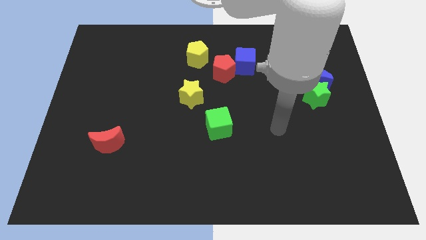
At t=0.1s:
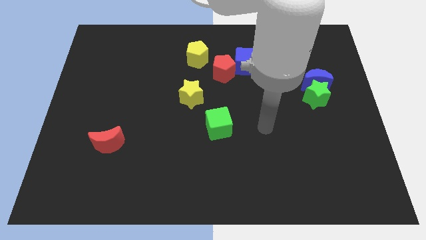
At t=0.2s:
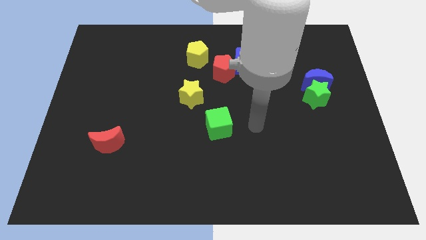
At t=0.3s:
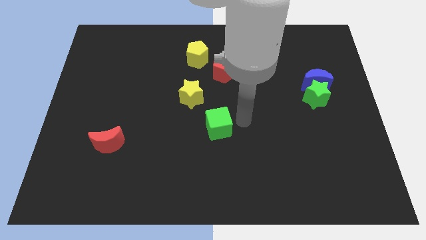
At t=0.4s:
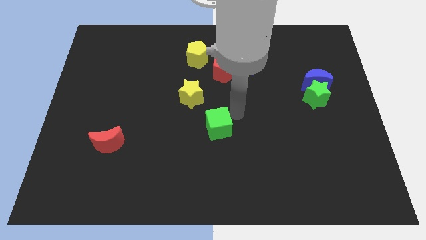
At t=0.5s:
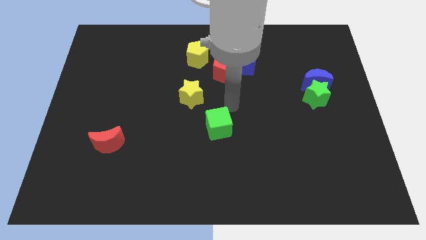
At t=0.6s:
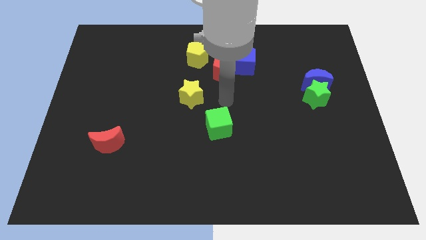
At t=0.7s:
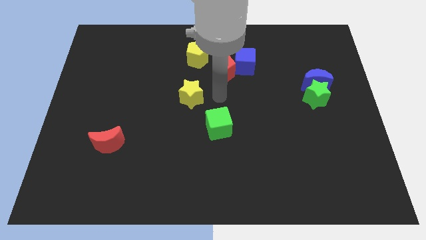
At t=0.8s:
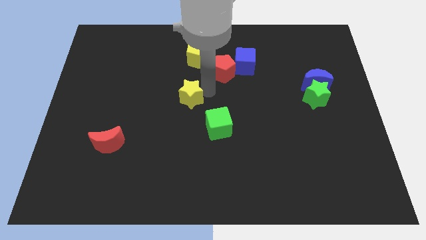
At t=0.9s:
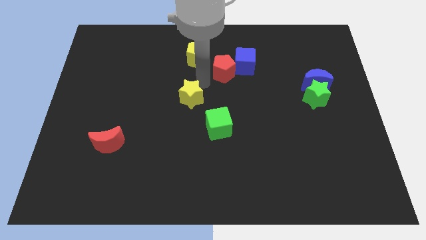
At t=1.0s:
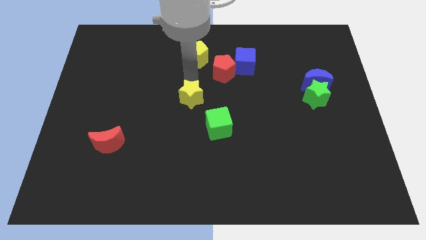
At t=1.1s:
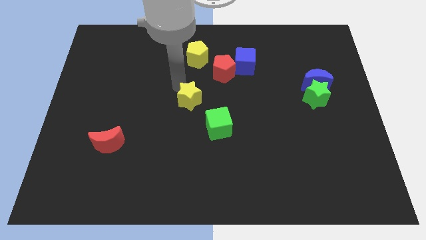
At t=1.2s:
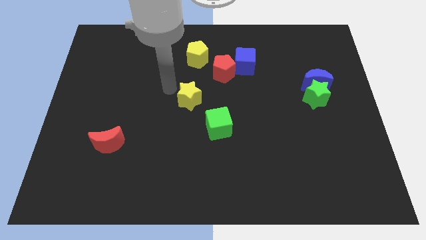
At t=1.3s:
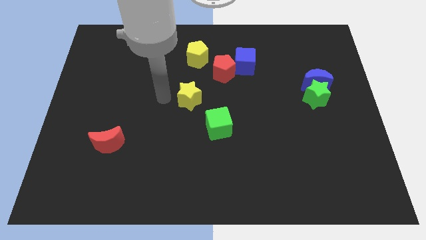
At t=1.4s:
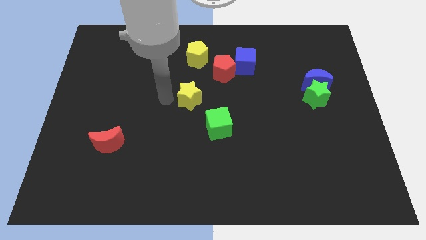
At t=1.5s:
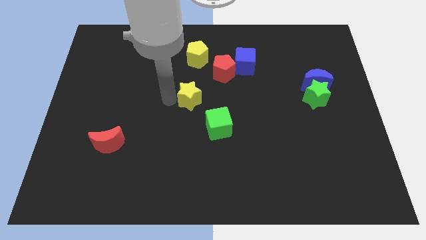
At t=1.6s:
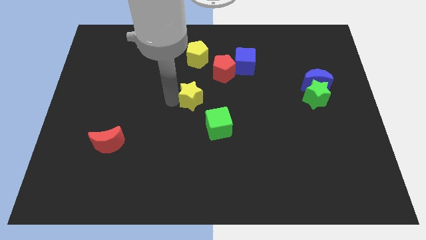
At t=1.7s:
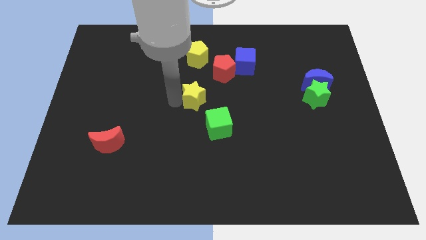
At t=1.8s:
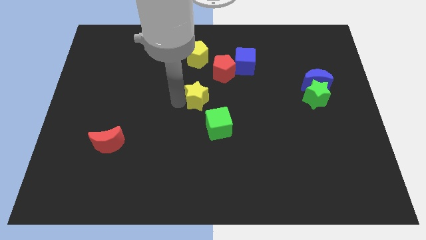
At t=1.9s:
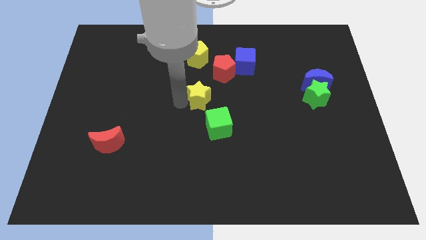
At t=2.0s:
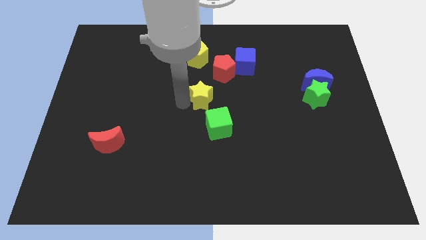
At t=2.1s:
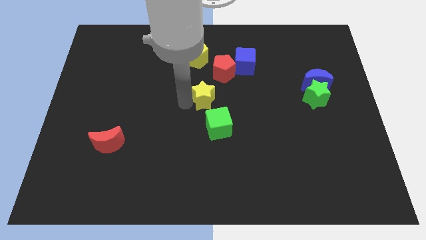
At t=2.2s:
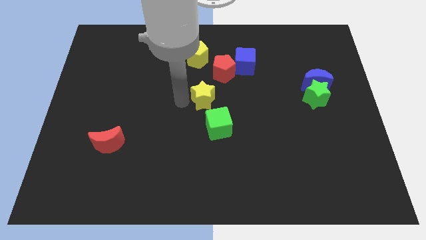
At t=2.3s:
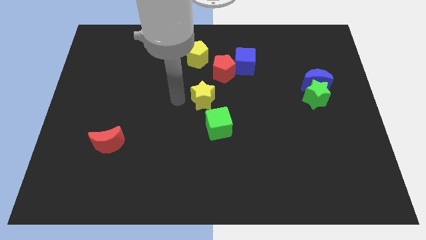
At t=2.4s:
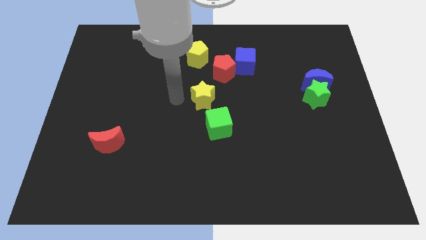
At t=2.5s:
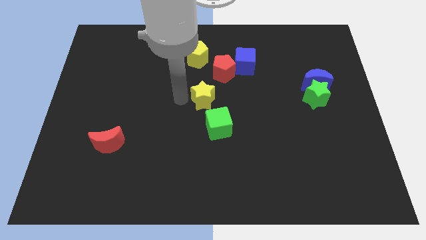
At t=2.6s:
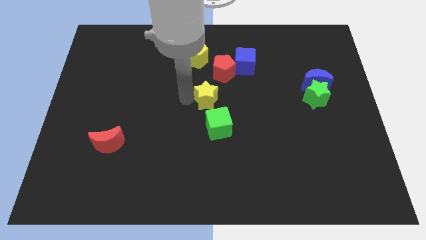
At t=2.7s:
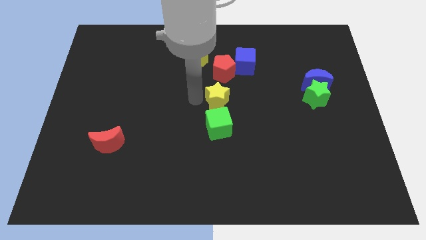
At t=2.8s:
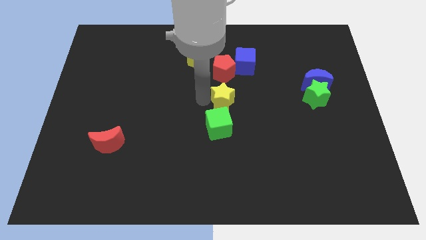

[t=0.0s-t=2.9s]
move the yellow star right somewhat

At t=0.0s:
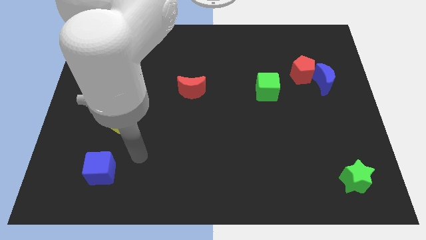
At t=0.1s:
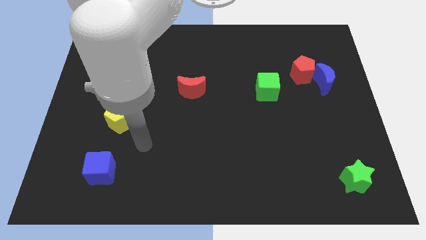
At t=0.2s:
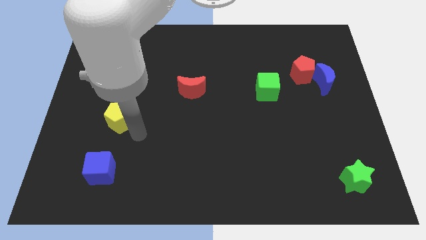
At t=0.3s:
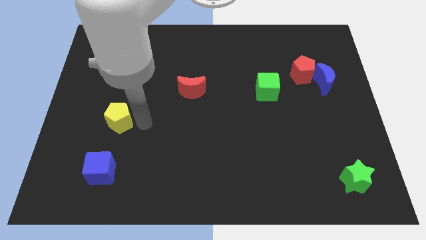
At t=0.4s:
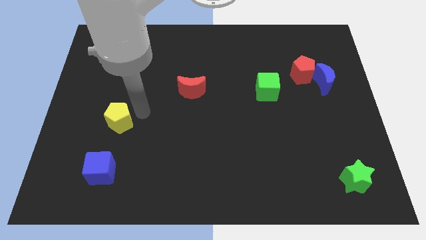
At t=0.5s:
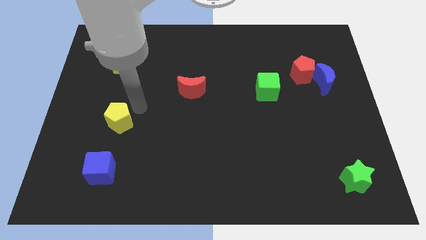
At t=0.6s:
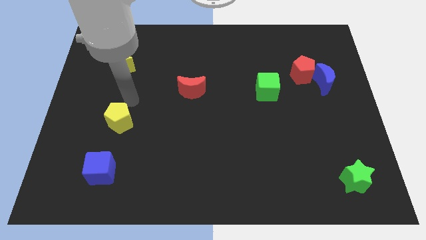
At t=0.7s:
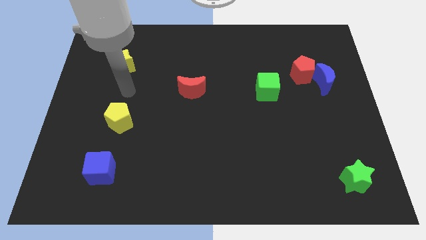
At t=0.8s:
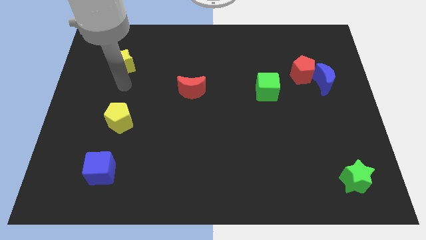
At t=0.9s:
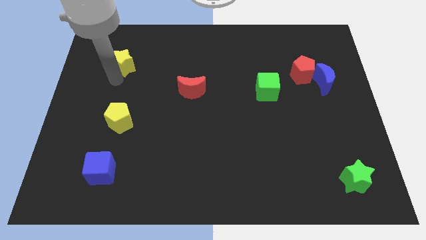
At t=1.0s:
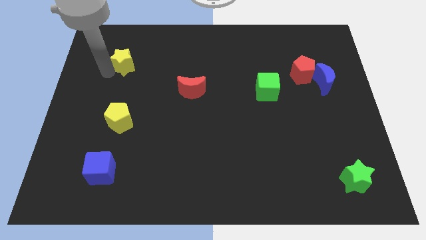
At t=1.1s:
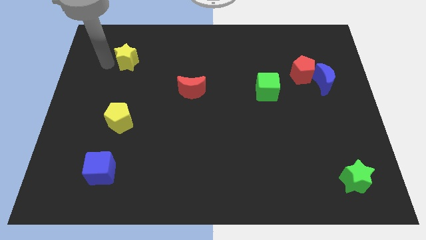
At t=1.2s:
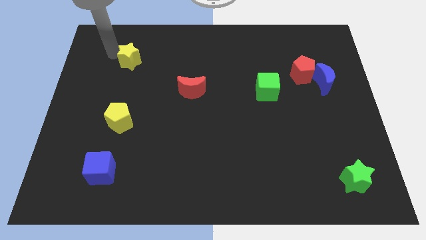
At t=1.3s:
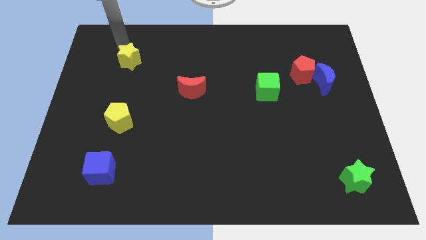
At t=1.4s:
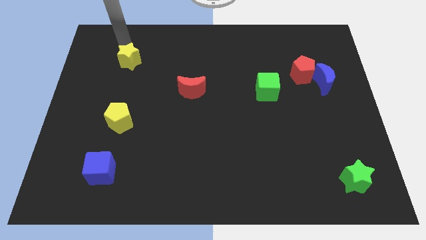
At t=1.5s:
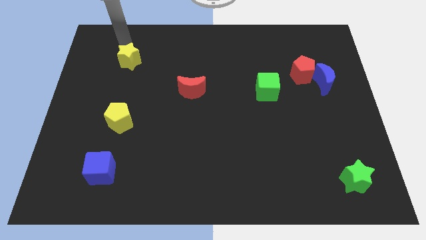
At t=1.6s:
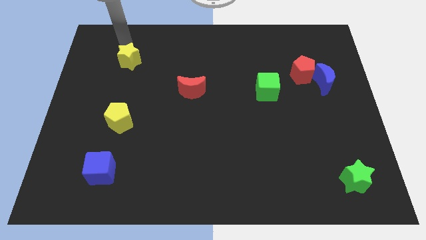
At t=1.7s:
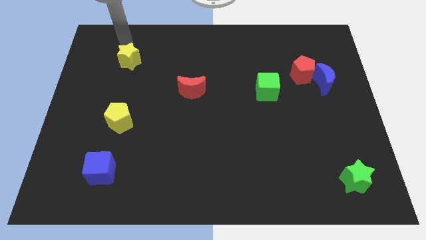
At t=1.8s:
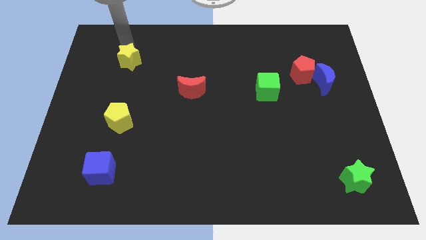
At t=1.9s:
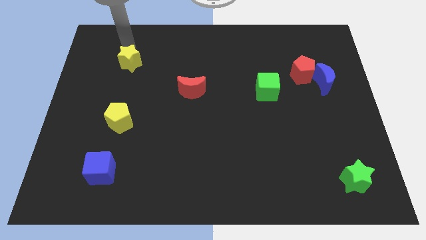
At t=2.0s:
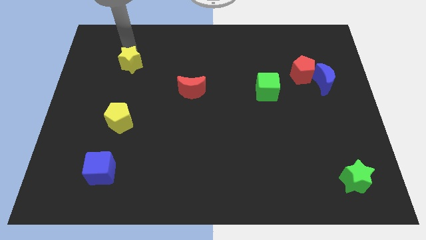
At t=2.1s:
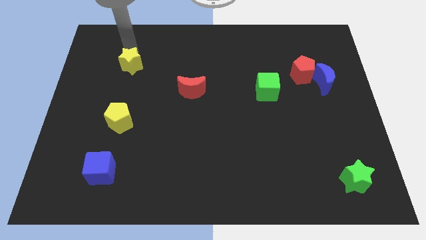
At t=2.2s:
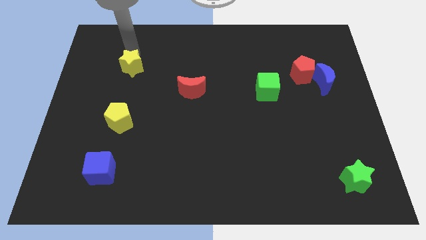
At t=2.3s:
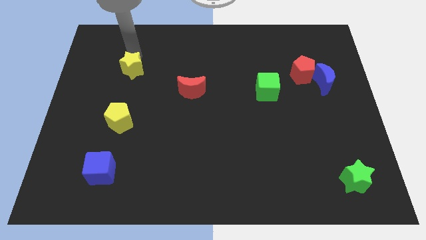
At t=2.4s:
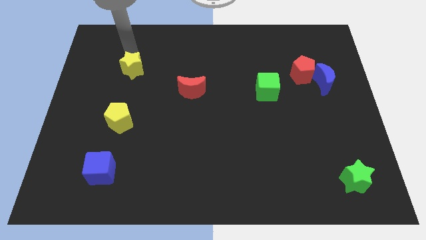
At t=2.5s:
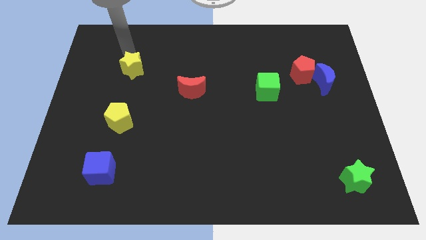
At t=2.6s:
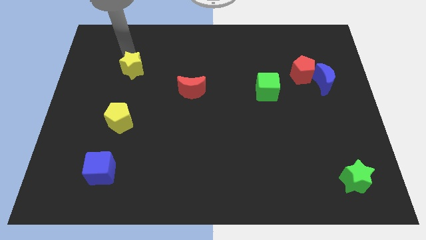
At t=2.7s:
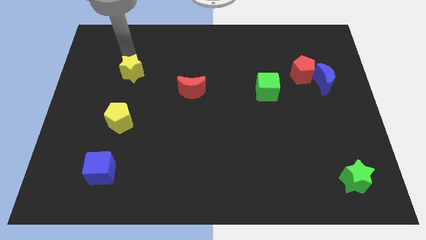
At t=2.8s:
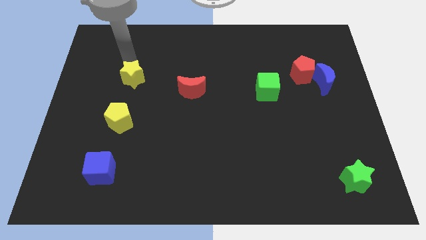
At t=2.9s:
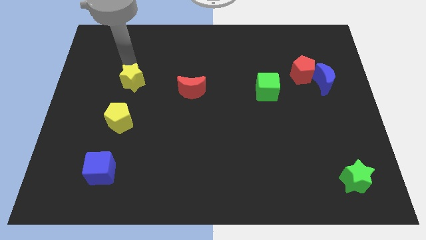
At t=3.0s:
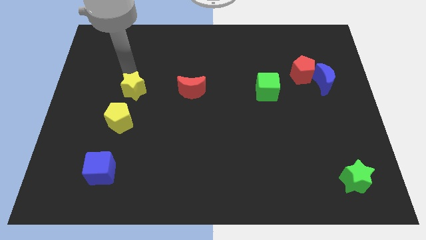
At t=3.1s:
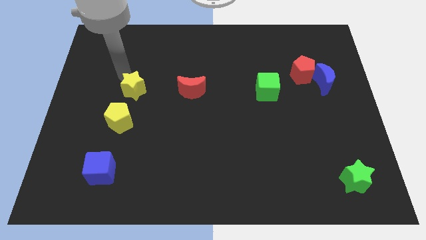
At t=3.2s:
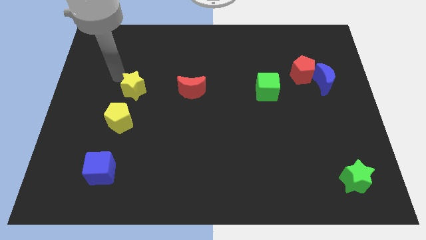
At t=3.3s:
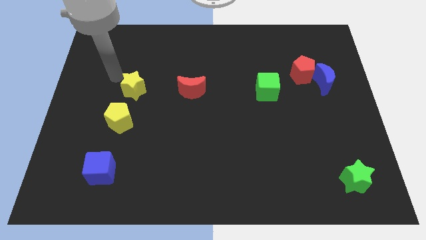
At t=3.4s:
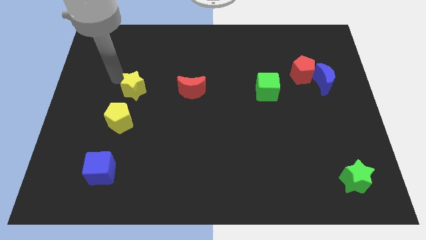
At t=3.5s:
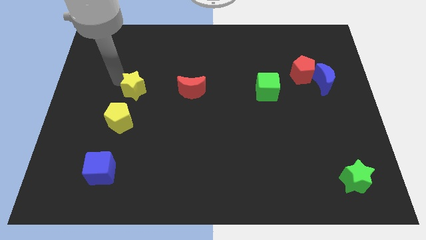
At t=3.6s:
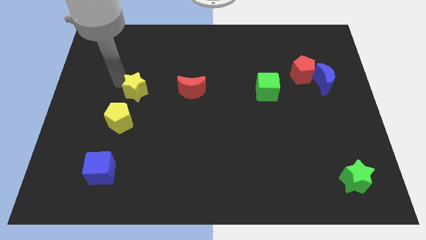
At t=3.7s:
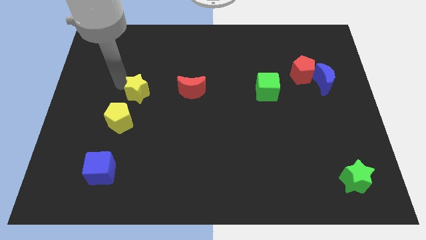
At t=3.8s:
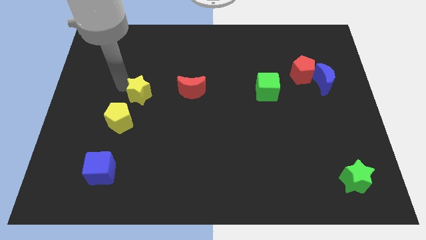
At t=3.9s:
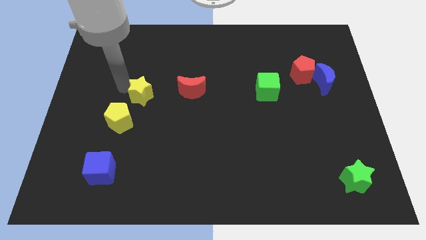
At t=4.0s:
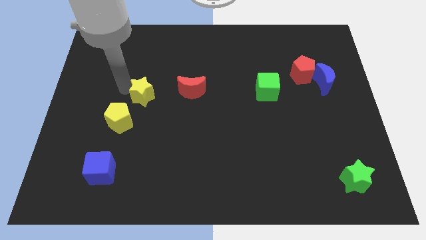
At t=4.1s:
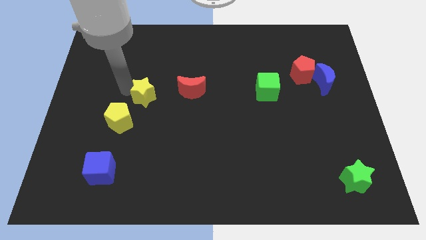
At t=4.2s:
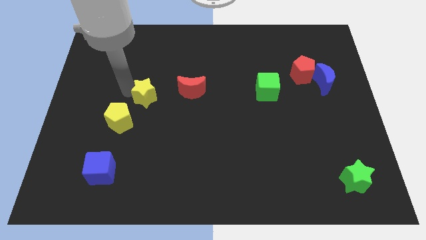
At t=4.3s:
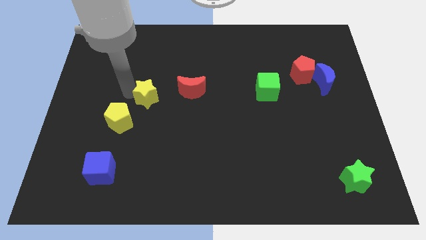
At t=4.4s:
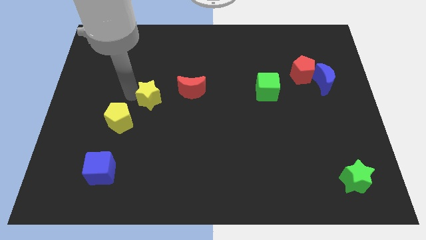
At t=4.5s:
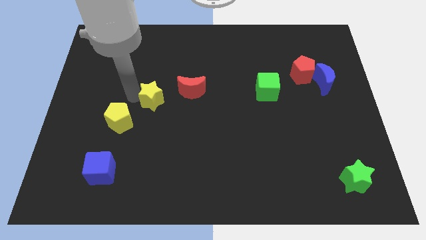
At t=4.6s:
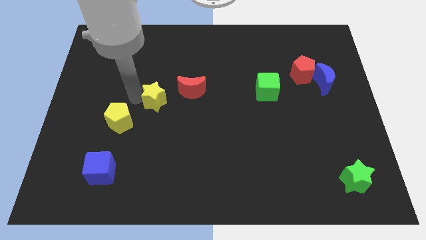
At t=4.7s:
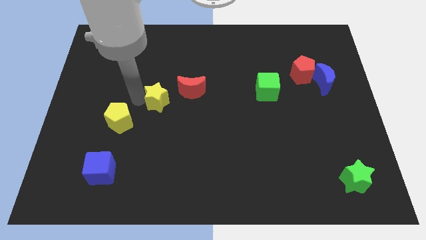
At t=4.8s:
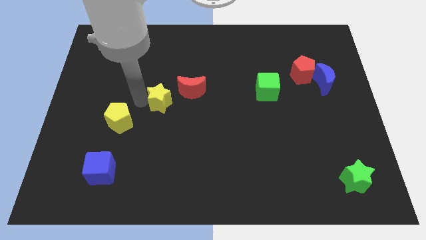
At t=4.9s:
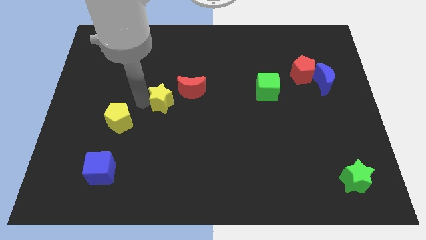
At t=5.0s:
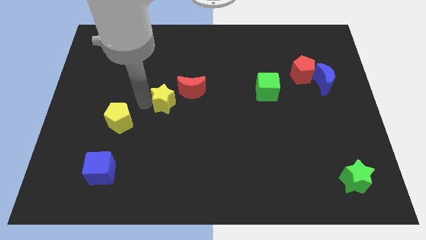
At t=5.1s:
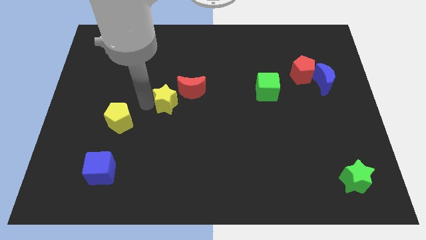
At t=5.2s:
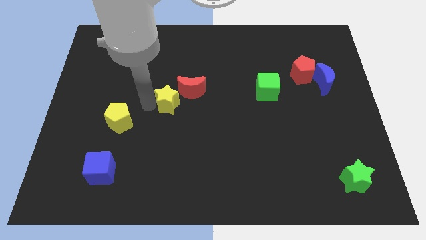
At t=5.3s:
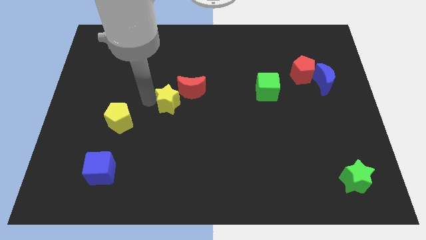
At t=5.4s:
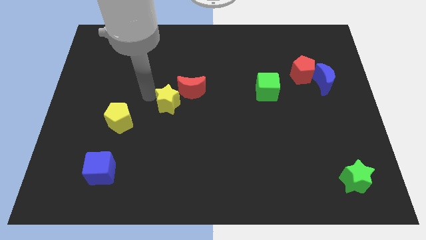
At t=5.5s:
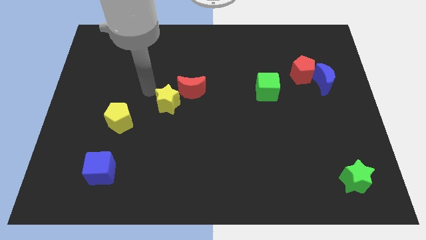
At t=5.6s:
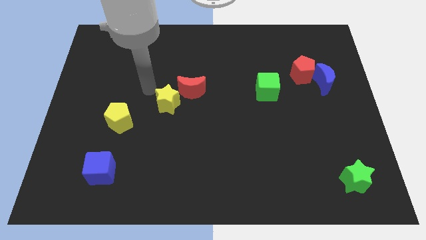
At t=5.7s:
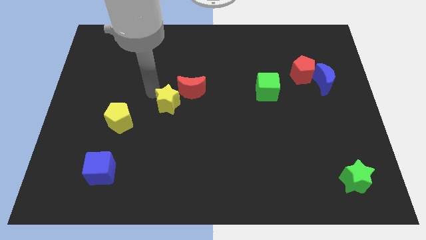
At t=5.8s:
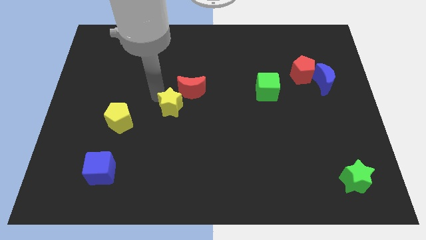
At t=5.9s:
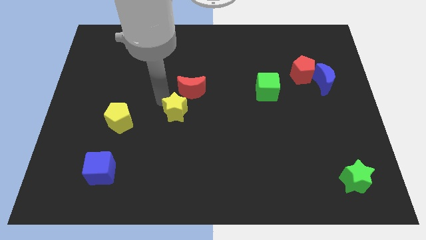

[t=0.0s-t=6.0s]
move the yellow star downwards and right
